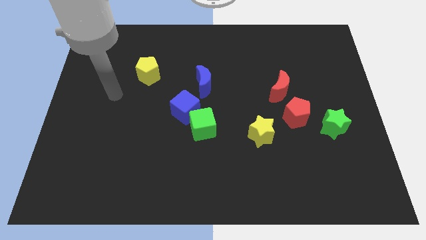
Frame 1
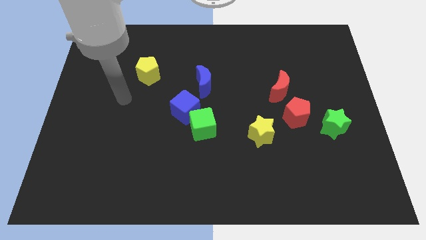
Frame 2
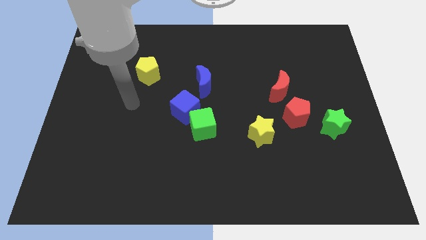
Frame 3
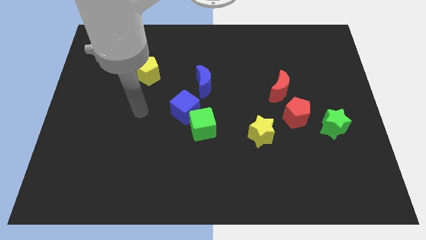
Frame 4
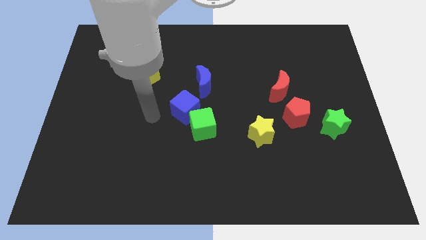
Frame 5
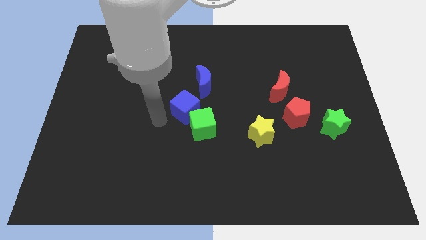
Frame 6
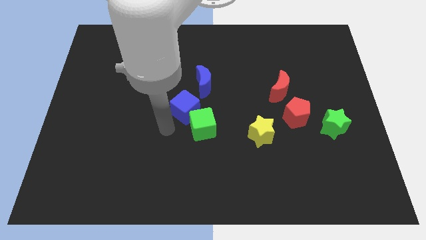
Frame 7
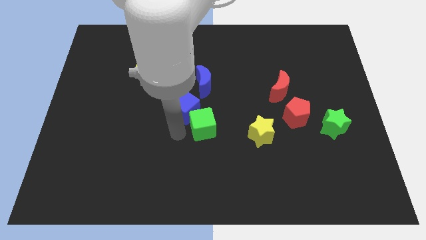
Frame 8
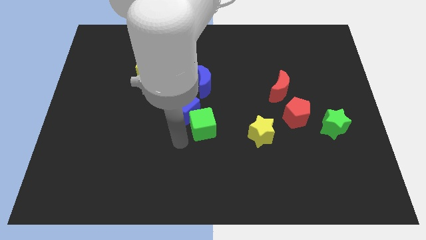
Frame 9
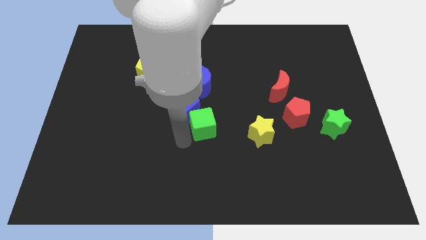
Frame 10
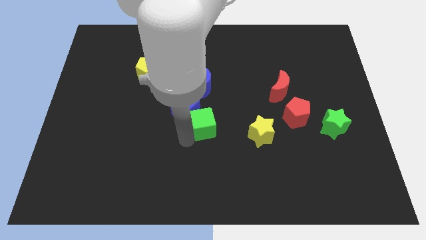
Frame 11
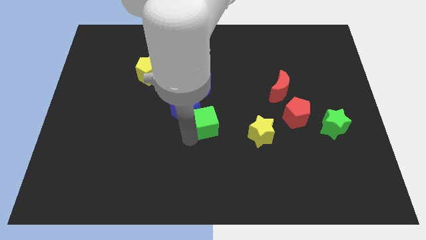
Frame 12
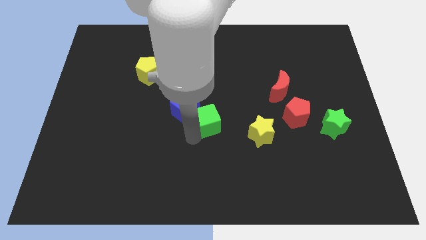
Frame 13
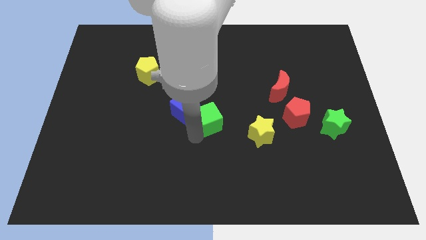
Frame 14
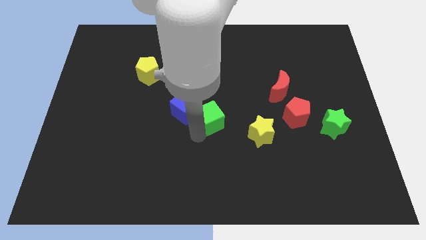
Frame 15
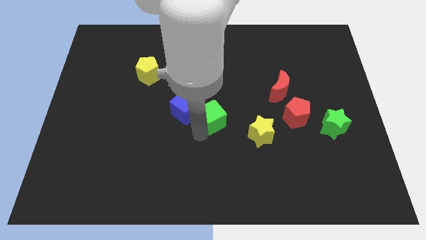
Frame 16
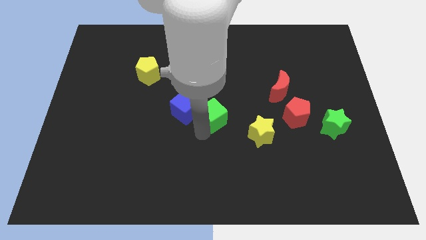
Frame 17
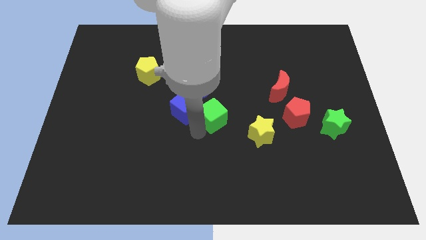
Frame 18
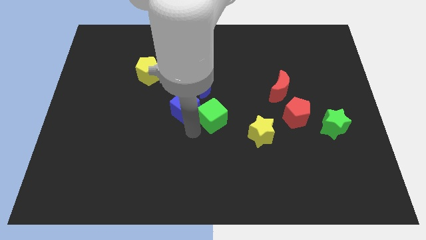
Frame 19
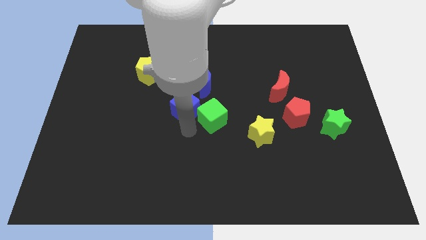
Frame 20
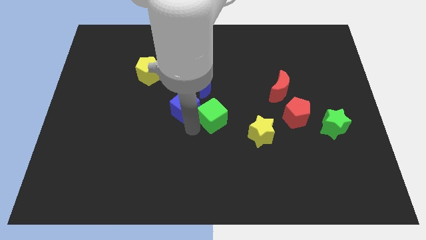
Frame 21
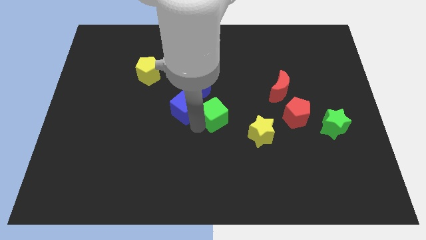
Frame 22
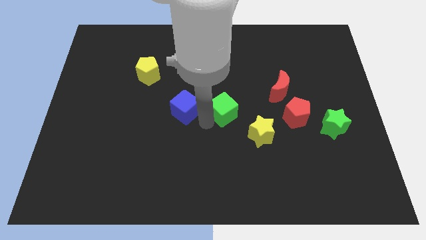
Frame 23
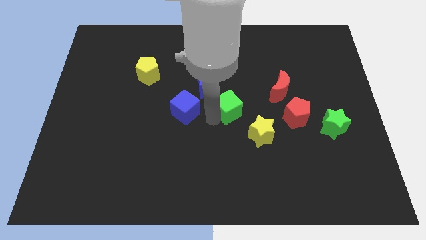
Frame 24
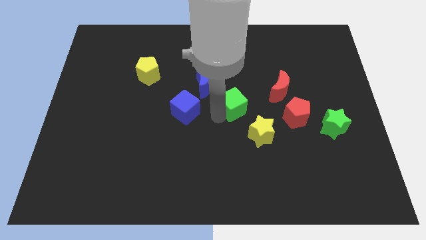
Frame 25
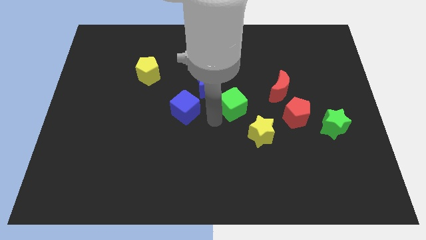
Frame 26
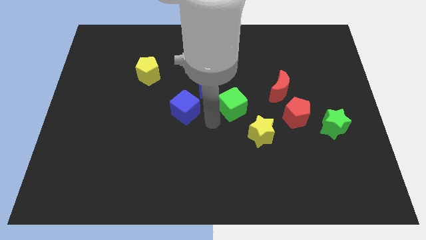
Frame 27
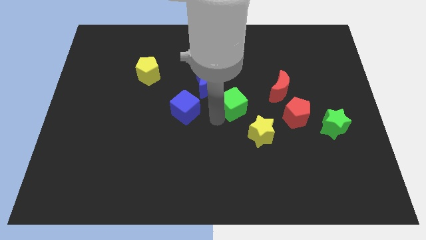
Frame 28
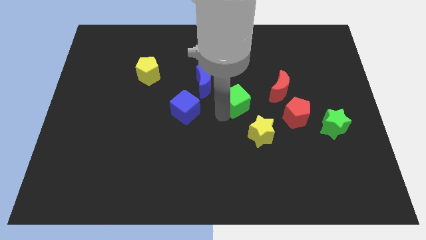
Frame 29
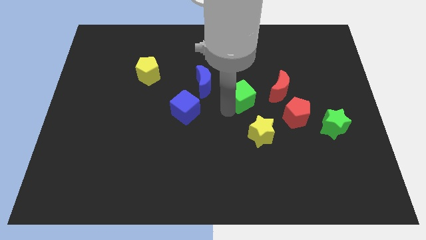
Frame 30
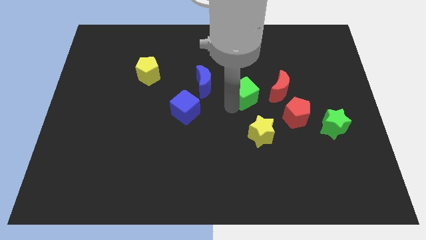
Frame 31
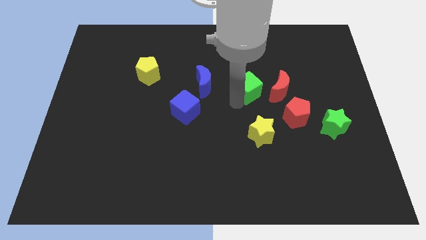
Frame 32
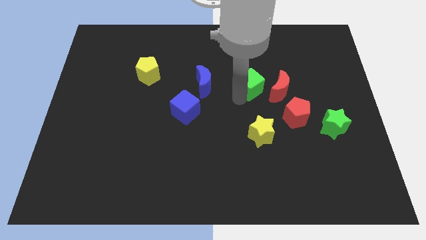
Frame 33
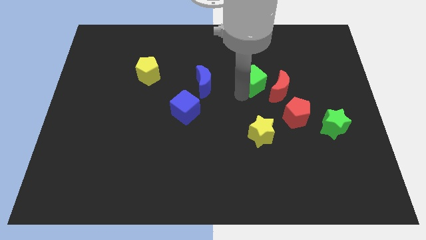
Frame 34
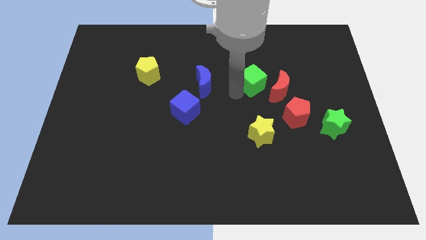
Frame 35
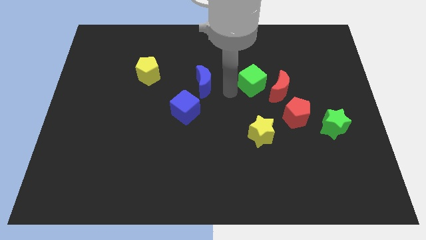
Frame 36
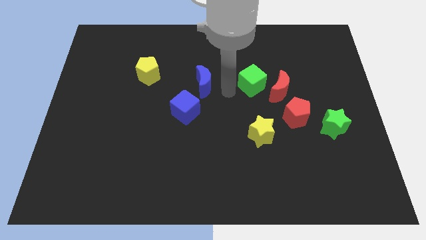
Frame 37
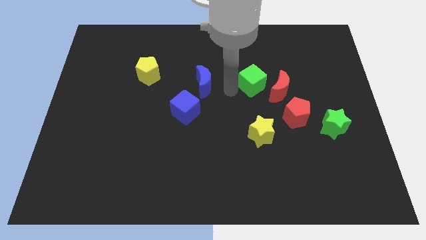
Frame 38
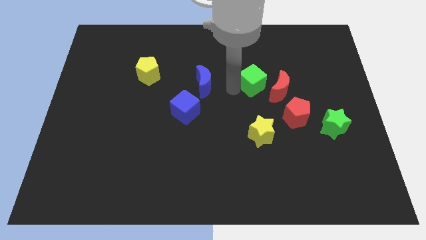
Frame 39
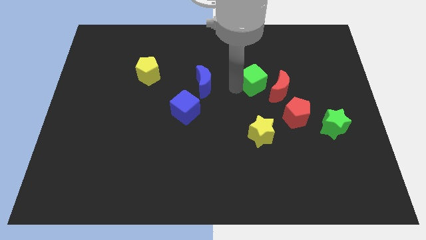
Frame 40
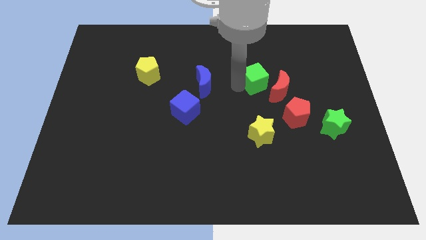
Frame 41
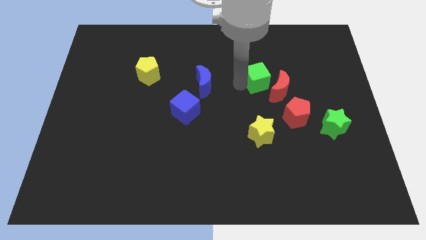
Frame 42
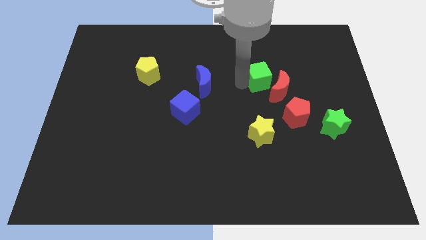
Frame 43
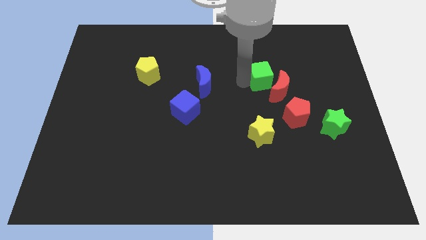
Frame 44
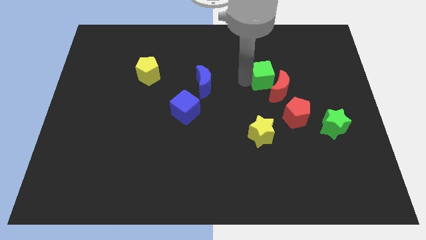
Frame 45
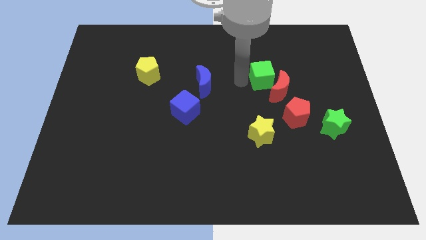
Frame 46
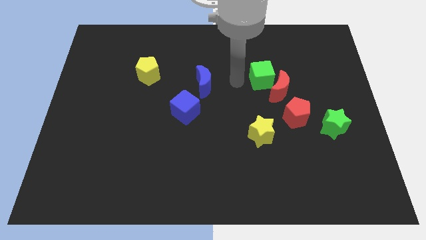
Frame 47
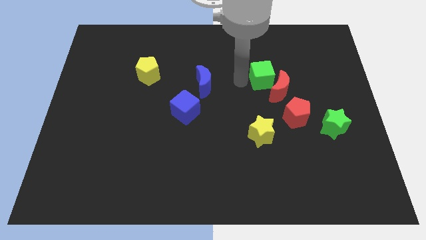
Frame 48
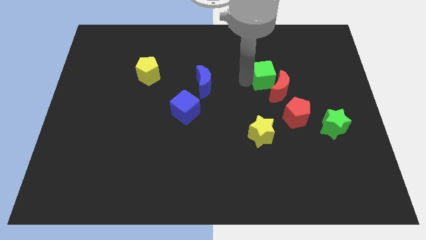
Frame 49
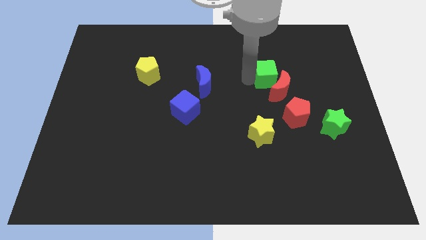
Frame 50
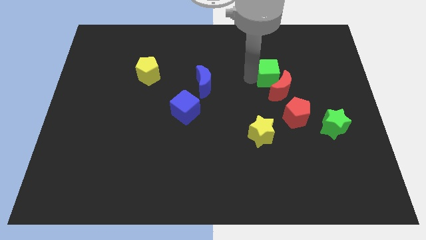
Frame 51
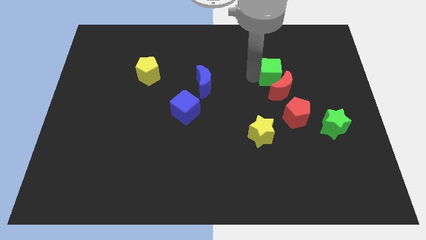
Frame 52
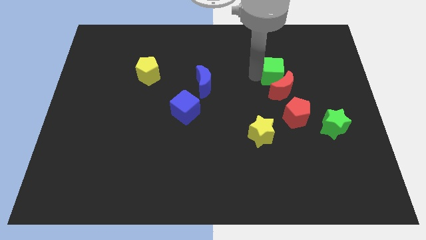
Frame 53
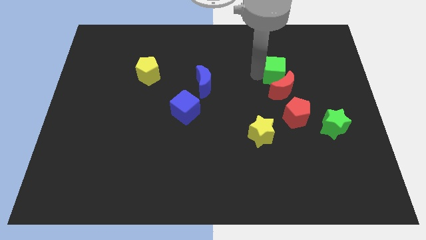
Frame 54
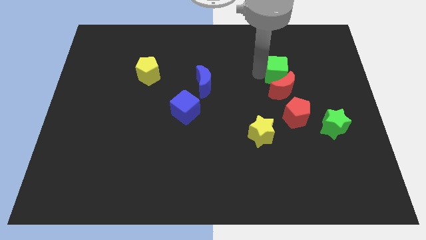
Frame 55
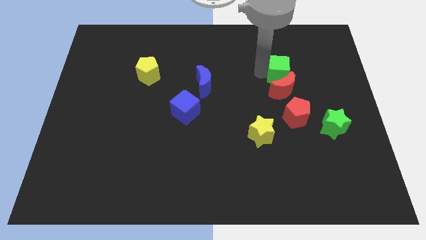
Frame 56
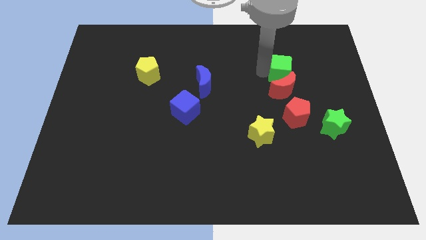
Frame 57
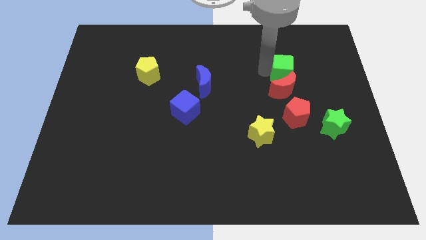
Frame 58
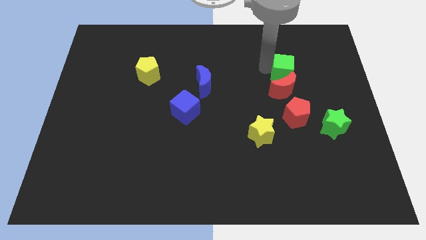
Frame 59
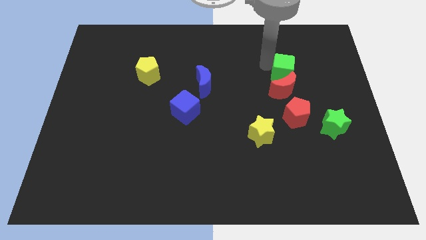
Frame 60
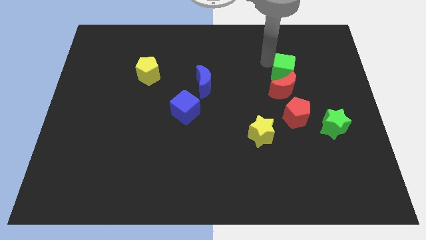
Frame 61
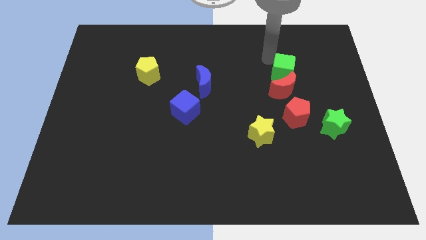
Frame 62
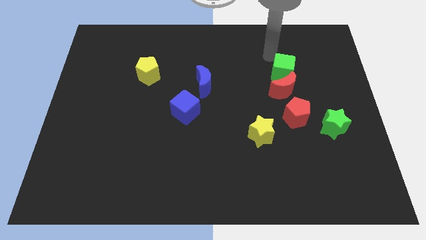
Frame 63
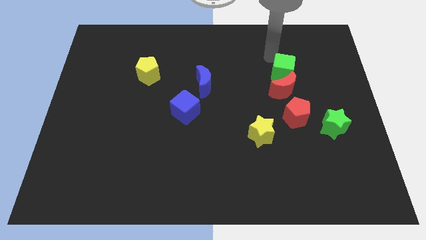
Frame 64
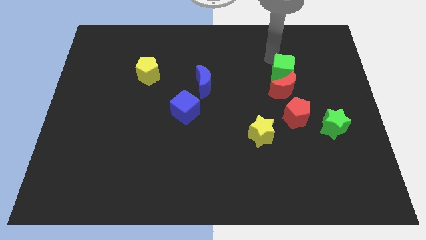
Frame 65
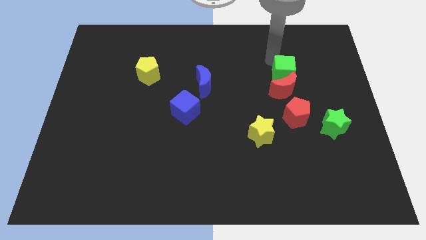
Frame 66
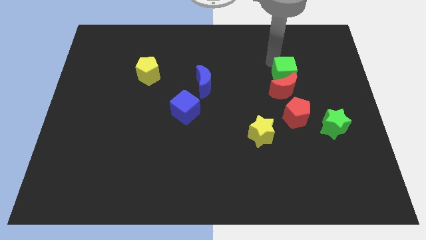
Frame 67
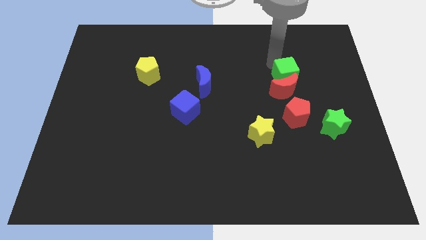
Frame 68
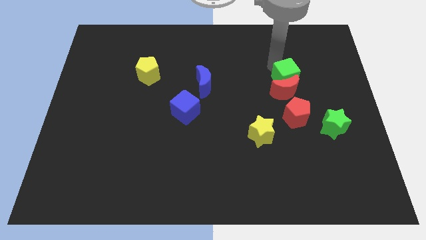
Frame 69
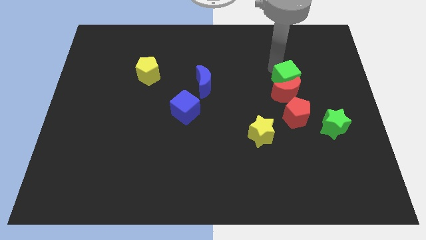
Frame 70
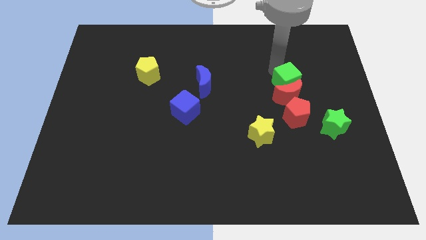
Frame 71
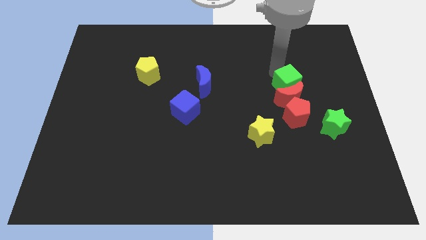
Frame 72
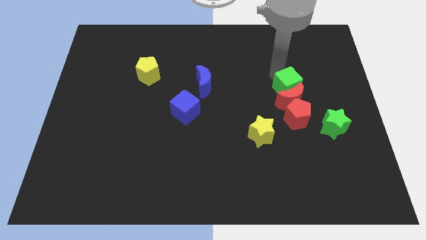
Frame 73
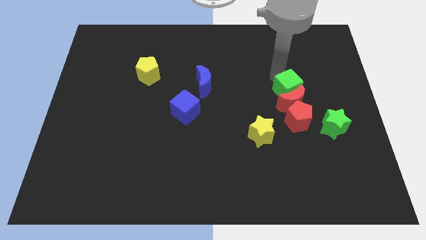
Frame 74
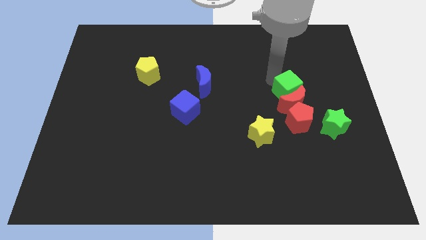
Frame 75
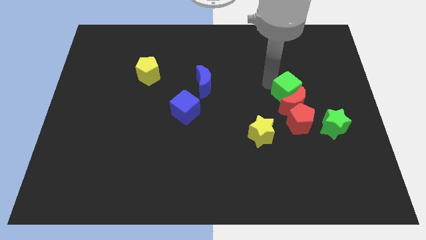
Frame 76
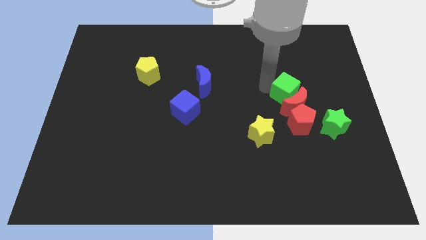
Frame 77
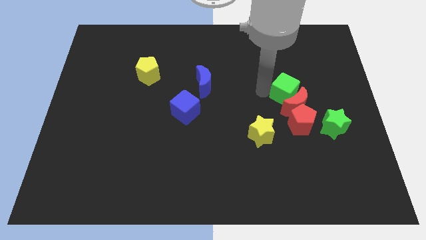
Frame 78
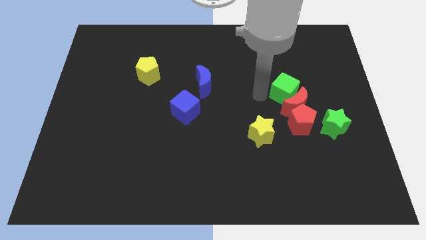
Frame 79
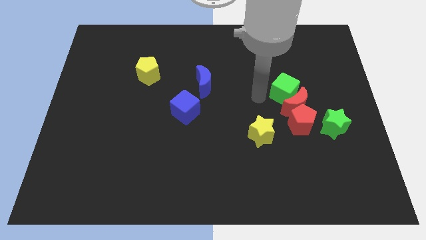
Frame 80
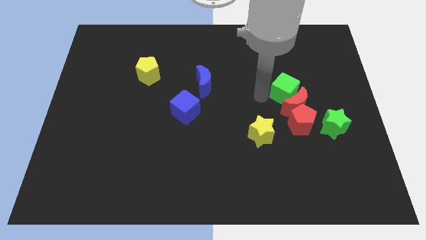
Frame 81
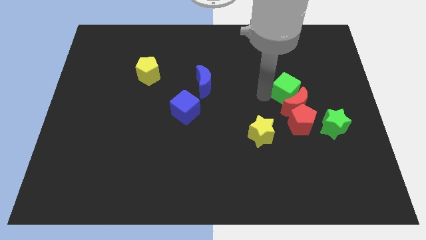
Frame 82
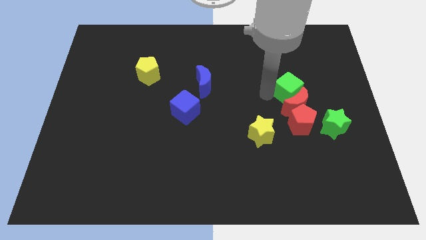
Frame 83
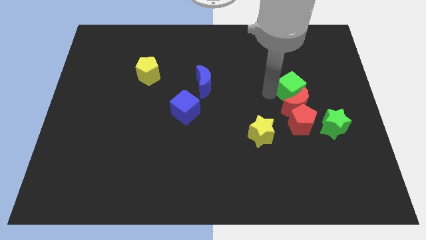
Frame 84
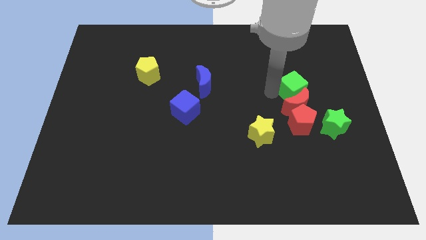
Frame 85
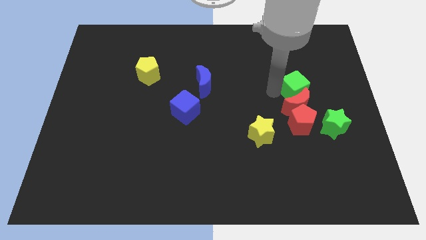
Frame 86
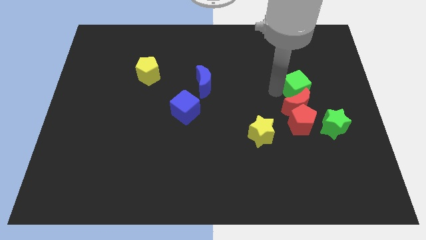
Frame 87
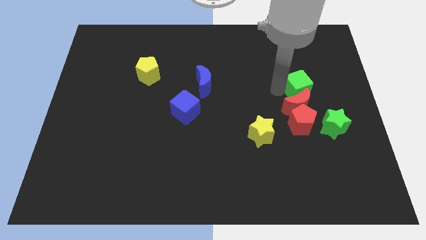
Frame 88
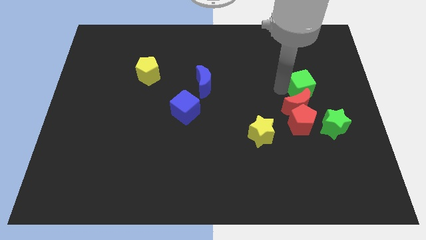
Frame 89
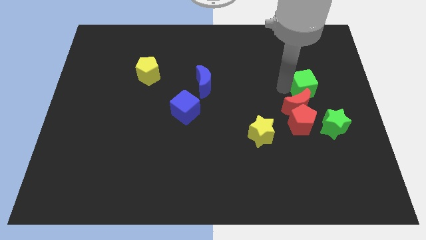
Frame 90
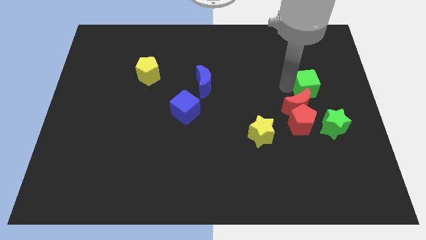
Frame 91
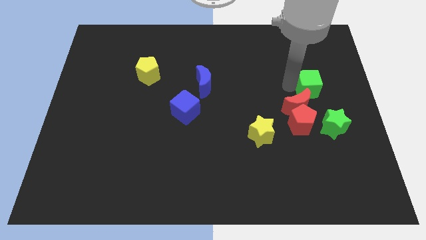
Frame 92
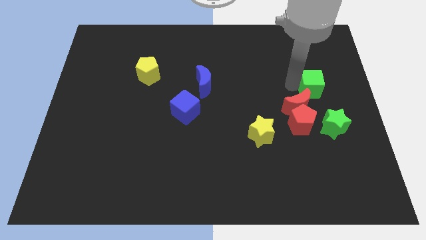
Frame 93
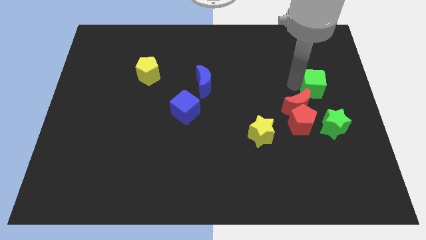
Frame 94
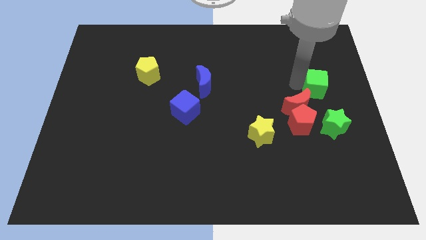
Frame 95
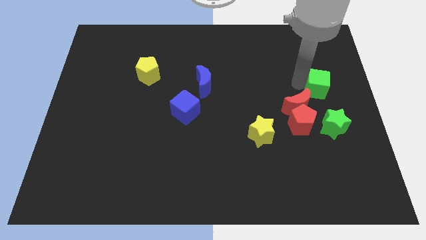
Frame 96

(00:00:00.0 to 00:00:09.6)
move the green cube to the center right
